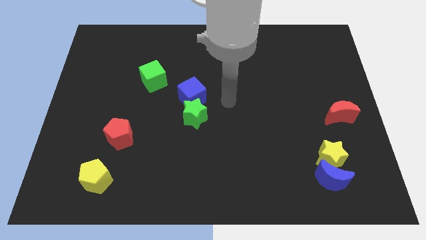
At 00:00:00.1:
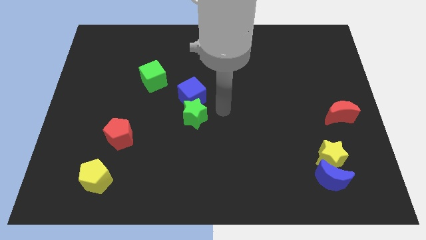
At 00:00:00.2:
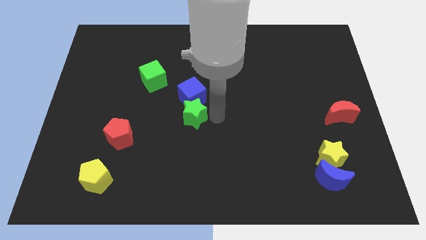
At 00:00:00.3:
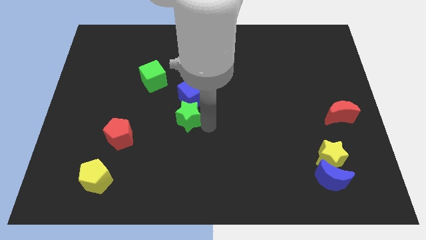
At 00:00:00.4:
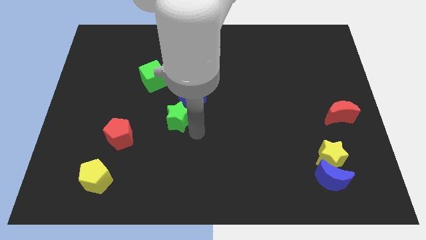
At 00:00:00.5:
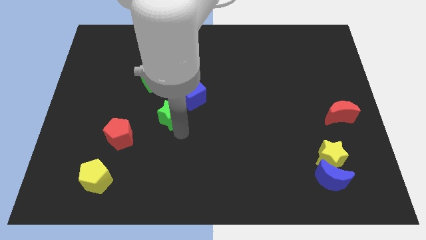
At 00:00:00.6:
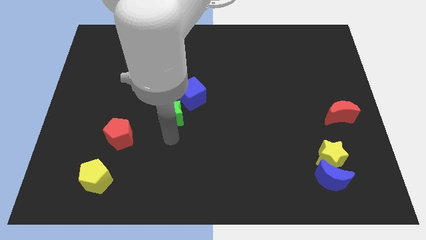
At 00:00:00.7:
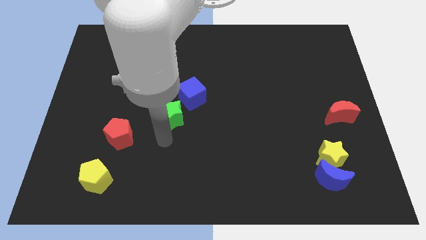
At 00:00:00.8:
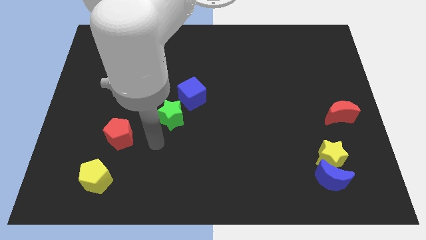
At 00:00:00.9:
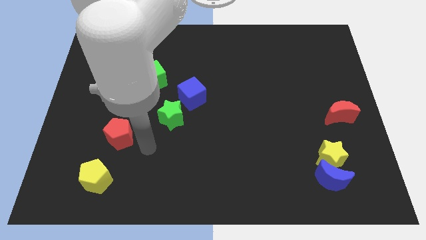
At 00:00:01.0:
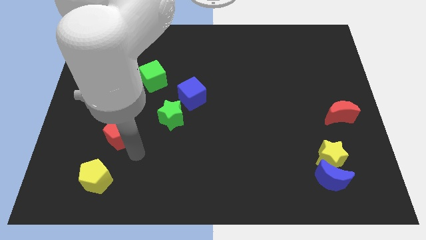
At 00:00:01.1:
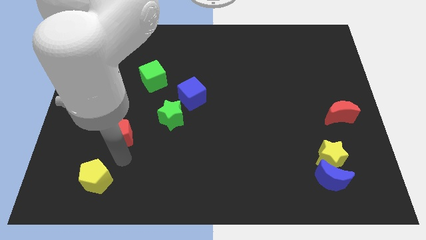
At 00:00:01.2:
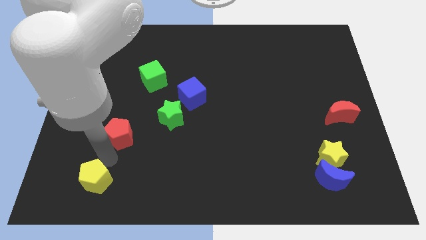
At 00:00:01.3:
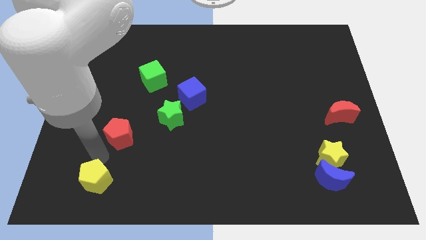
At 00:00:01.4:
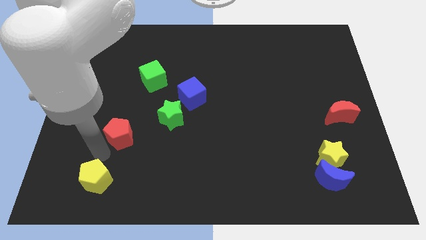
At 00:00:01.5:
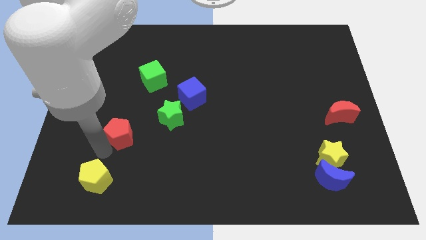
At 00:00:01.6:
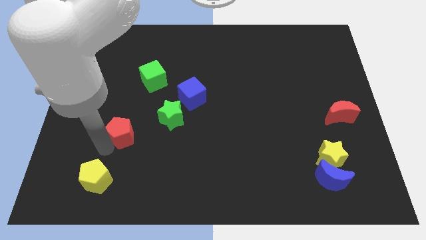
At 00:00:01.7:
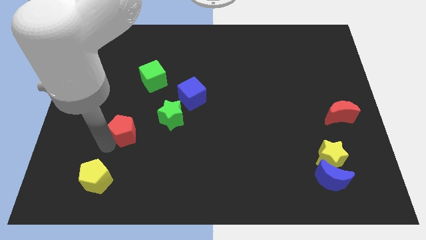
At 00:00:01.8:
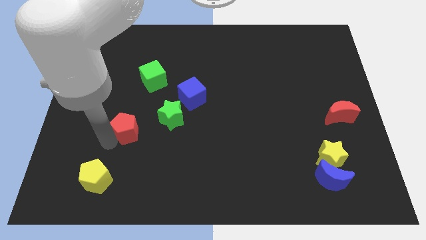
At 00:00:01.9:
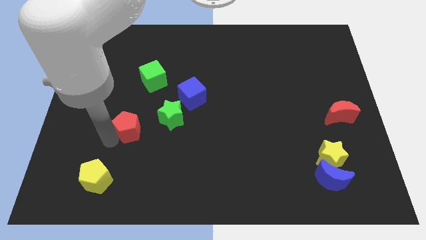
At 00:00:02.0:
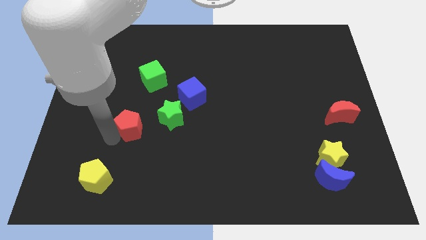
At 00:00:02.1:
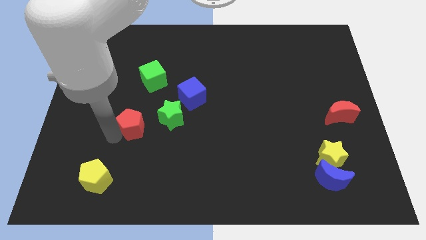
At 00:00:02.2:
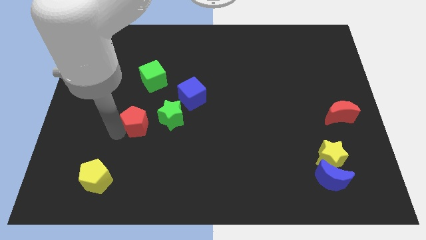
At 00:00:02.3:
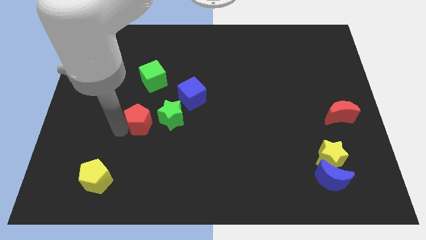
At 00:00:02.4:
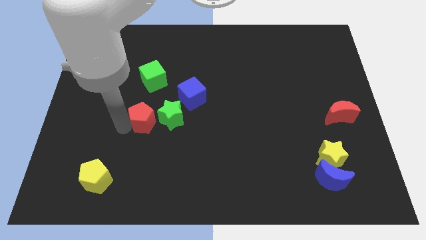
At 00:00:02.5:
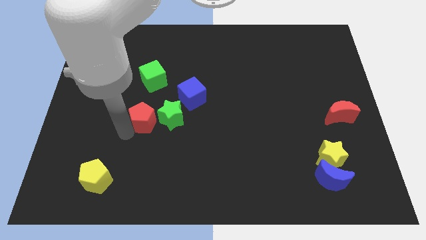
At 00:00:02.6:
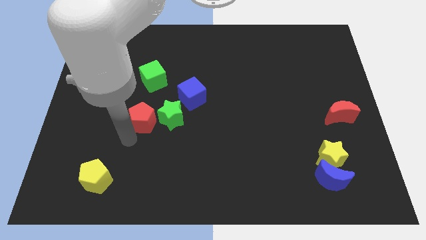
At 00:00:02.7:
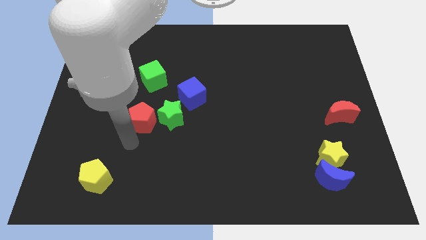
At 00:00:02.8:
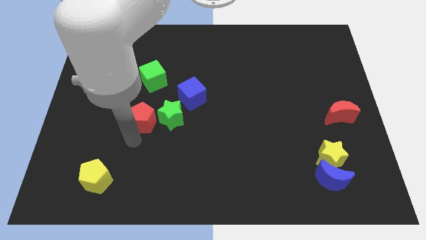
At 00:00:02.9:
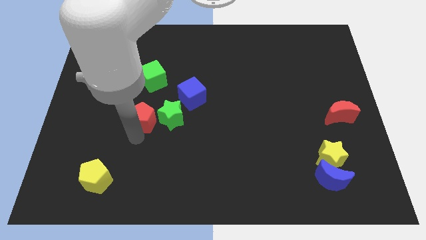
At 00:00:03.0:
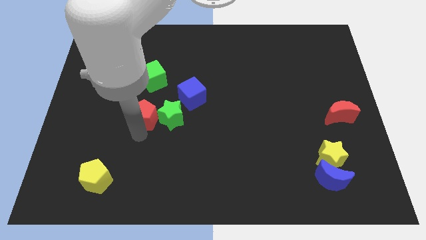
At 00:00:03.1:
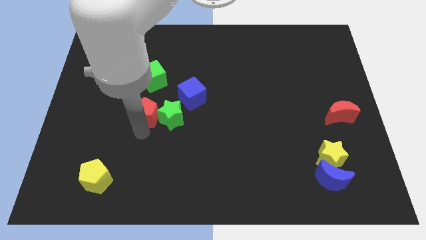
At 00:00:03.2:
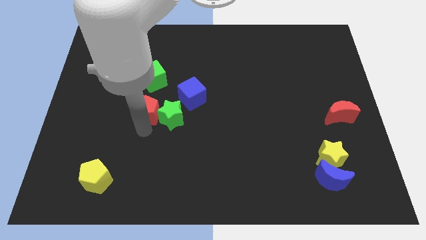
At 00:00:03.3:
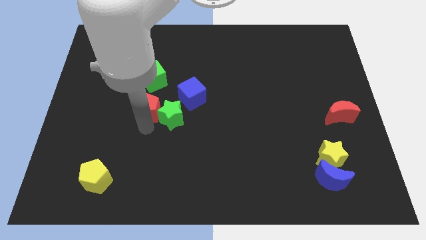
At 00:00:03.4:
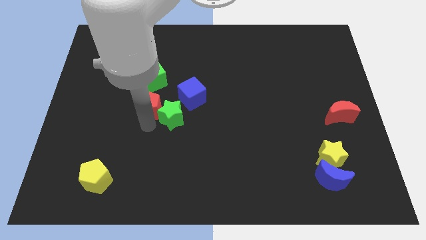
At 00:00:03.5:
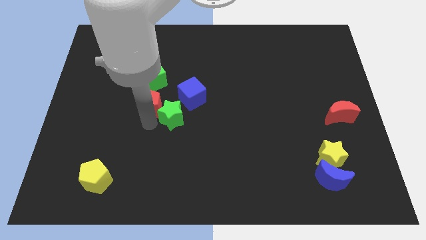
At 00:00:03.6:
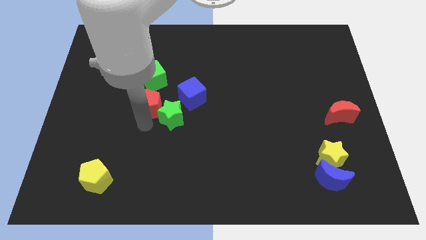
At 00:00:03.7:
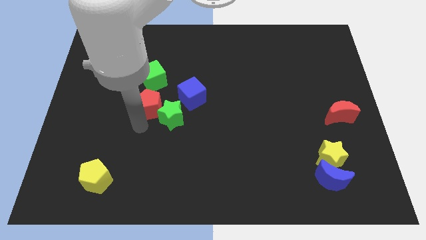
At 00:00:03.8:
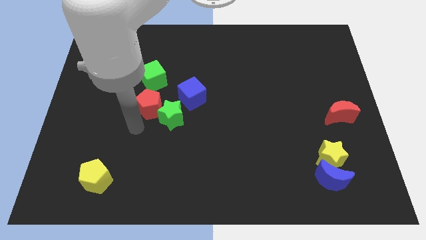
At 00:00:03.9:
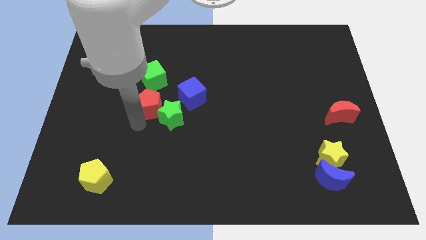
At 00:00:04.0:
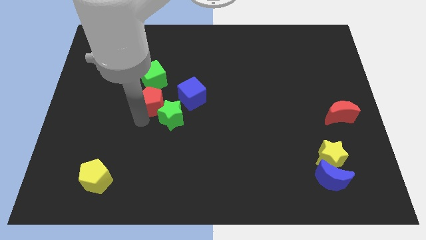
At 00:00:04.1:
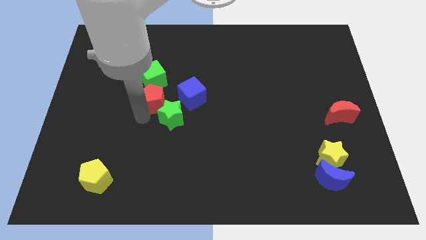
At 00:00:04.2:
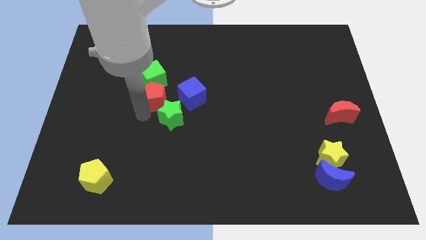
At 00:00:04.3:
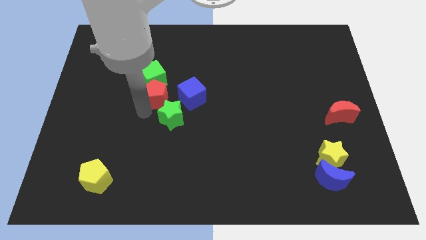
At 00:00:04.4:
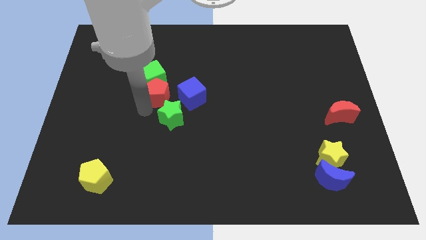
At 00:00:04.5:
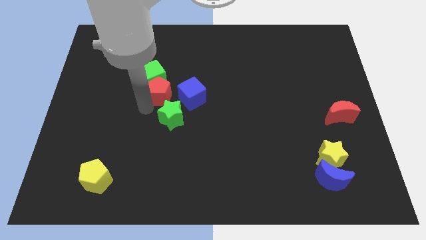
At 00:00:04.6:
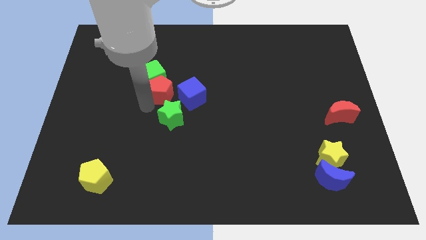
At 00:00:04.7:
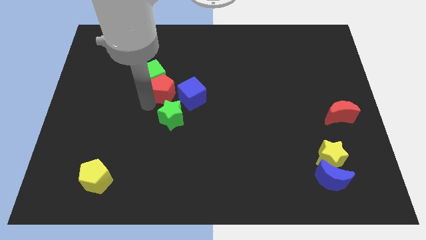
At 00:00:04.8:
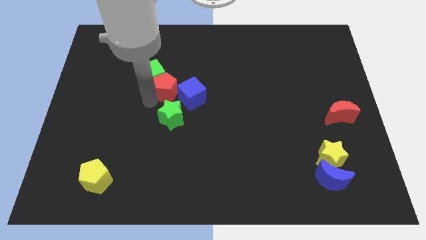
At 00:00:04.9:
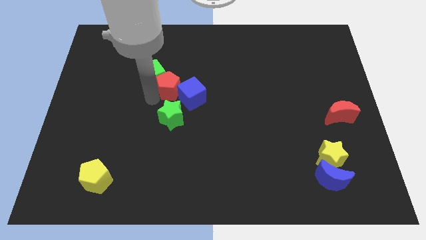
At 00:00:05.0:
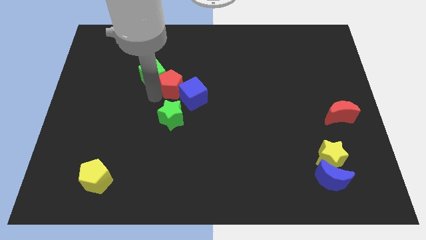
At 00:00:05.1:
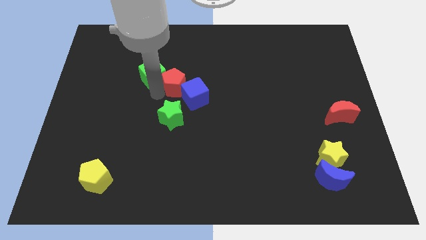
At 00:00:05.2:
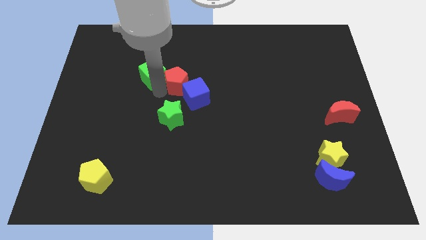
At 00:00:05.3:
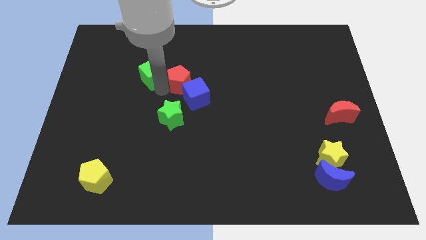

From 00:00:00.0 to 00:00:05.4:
slide the red pentagon diagonally upwards and to the right

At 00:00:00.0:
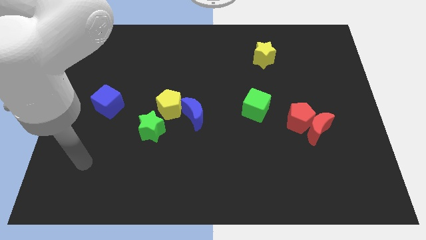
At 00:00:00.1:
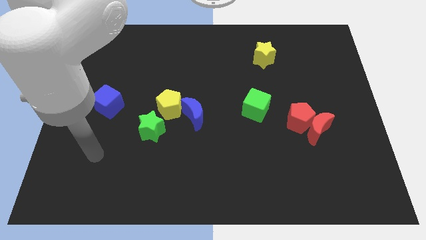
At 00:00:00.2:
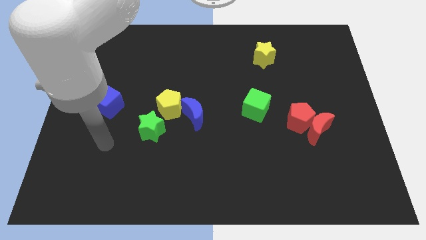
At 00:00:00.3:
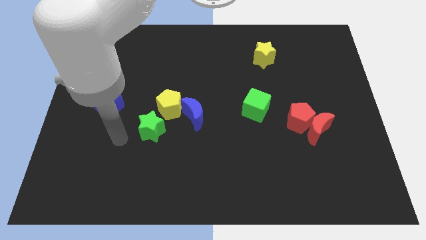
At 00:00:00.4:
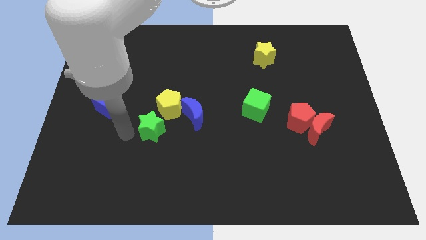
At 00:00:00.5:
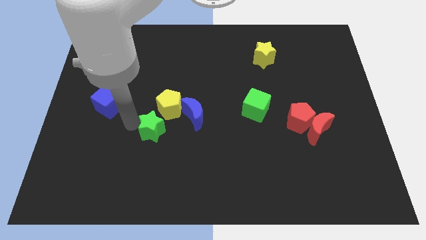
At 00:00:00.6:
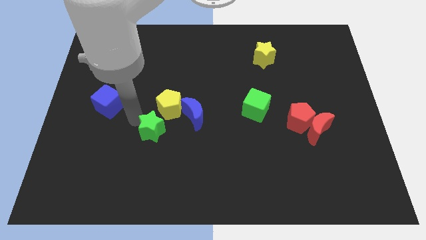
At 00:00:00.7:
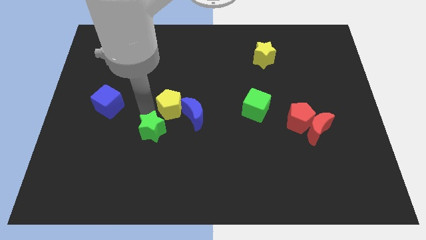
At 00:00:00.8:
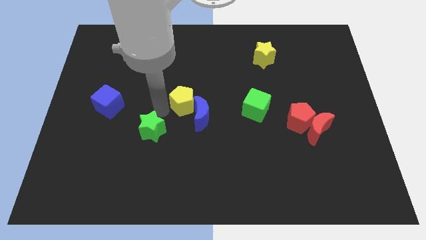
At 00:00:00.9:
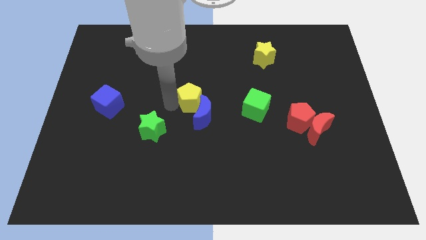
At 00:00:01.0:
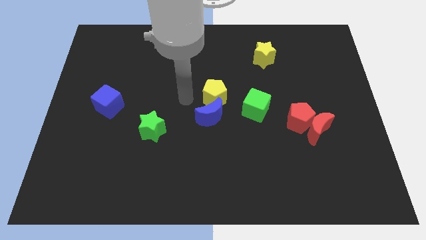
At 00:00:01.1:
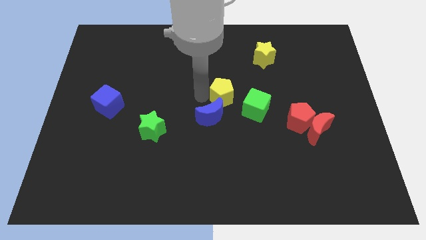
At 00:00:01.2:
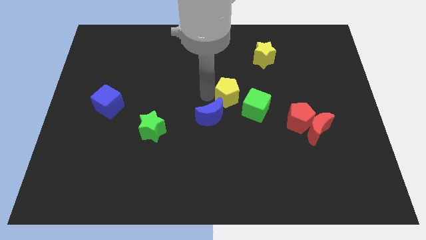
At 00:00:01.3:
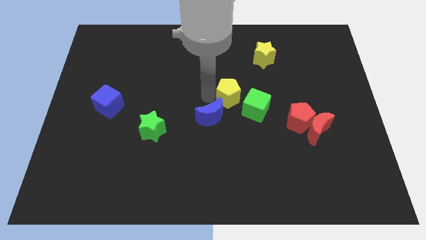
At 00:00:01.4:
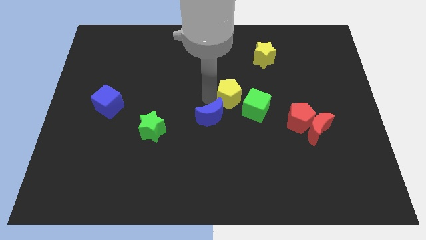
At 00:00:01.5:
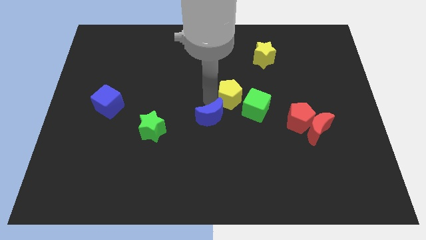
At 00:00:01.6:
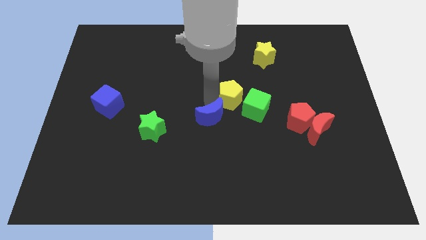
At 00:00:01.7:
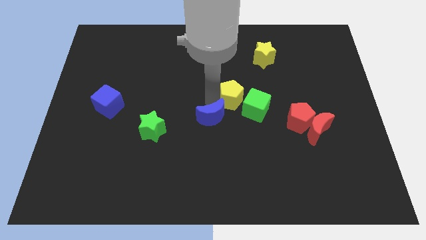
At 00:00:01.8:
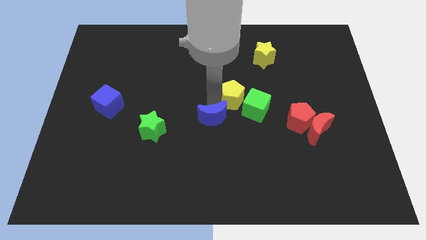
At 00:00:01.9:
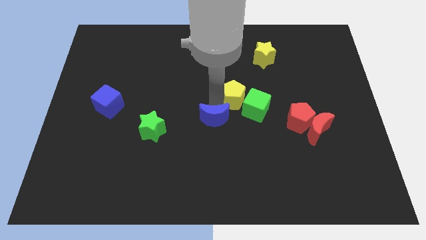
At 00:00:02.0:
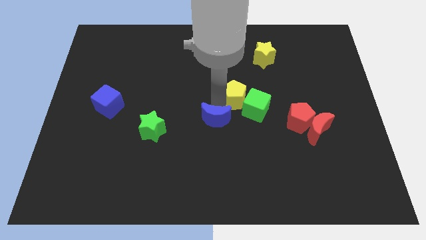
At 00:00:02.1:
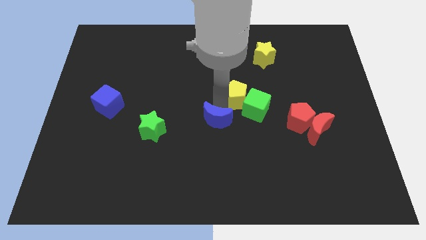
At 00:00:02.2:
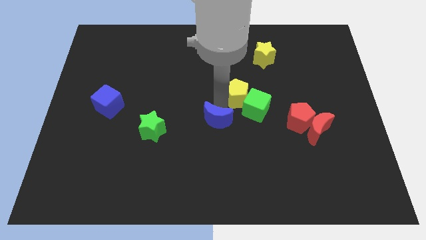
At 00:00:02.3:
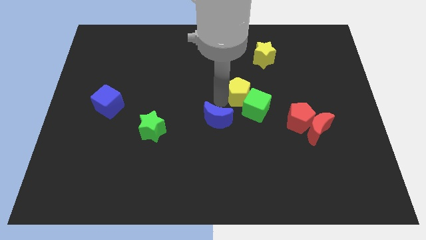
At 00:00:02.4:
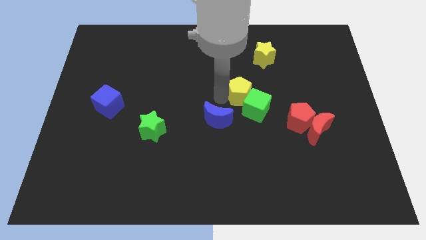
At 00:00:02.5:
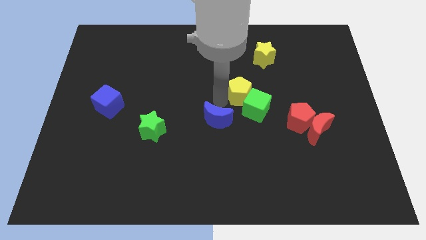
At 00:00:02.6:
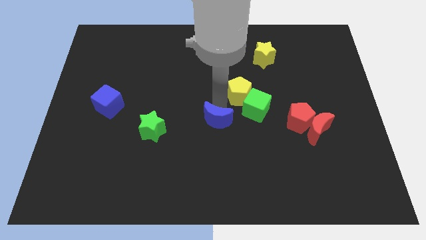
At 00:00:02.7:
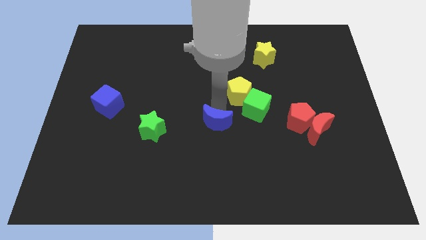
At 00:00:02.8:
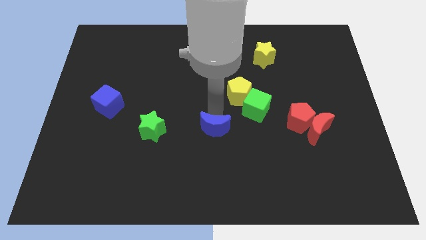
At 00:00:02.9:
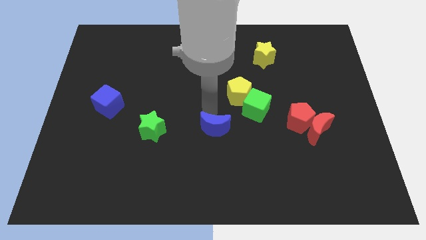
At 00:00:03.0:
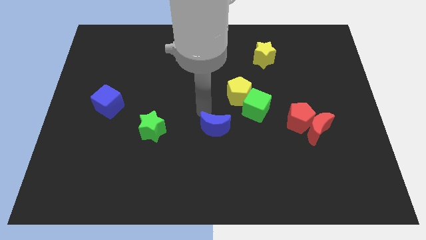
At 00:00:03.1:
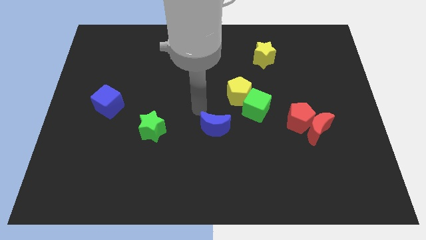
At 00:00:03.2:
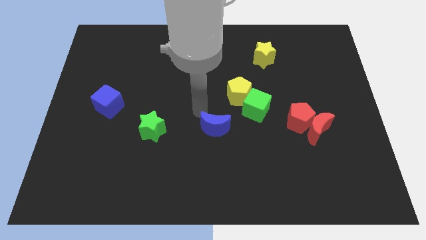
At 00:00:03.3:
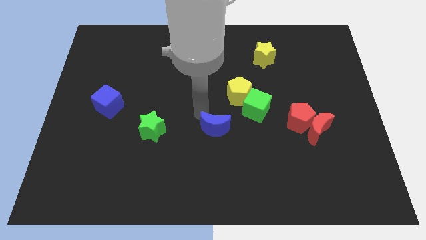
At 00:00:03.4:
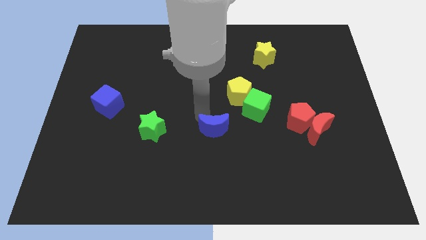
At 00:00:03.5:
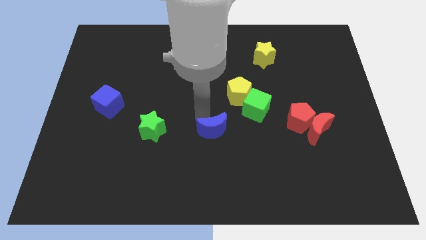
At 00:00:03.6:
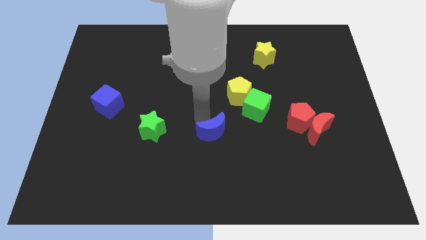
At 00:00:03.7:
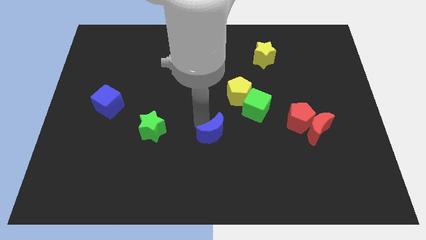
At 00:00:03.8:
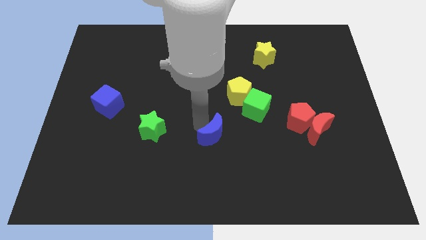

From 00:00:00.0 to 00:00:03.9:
slide the blue moon down and then right a little
